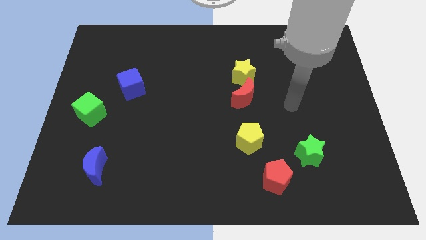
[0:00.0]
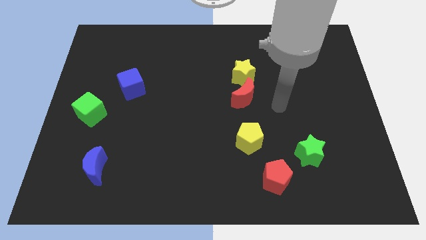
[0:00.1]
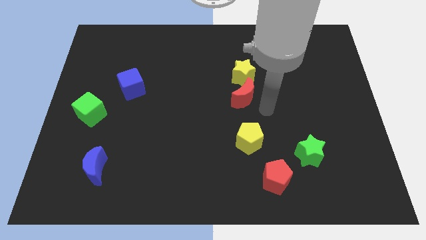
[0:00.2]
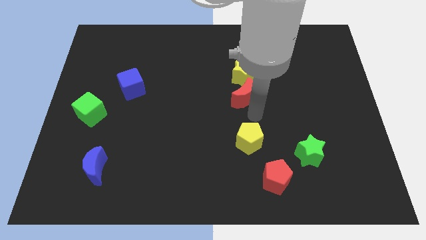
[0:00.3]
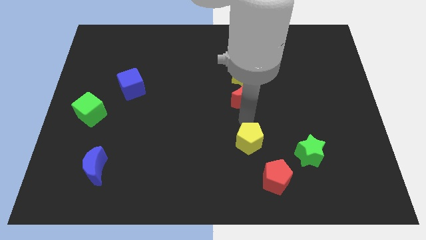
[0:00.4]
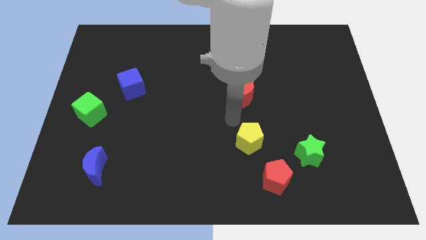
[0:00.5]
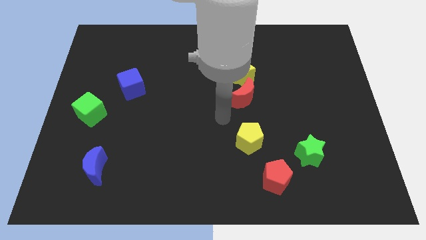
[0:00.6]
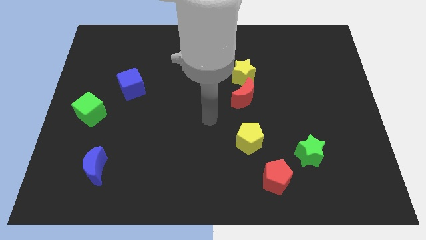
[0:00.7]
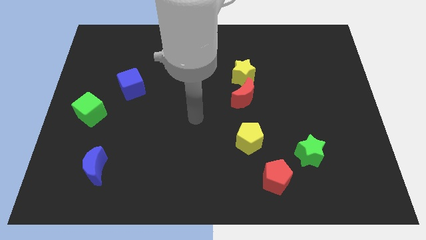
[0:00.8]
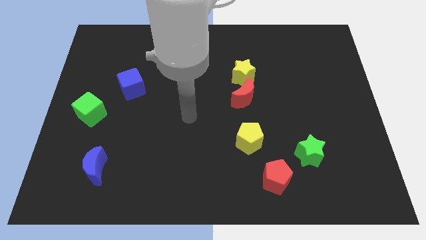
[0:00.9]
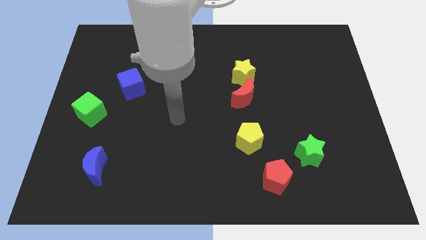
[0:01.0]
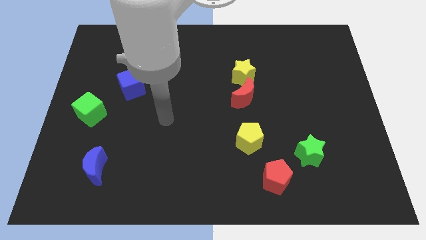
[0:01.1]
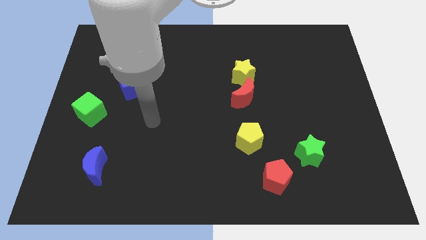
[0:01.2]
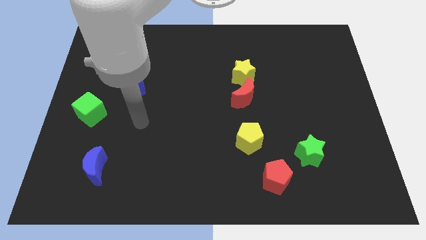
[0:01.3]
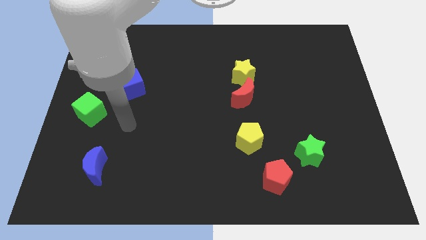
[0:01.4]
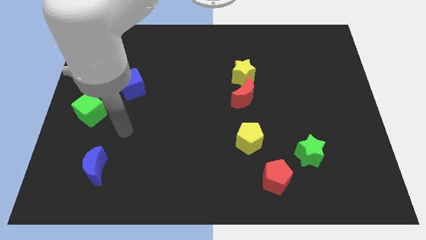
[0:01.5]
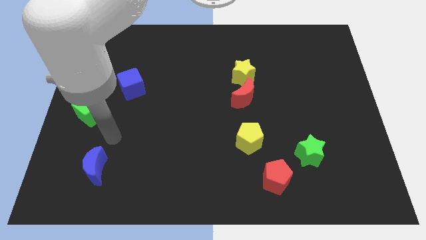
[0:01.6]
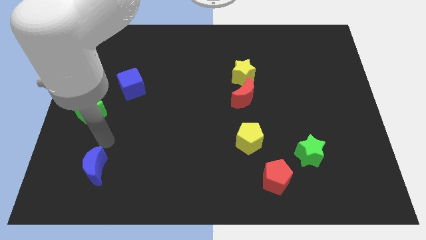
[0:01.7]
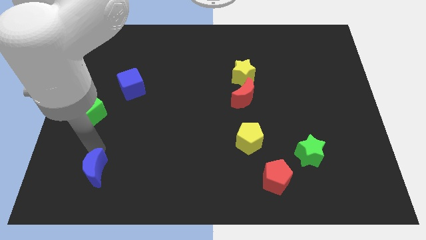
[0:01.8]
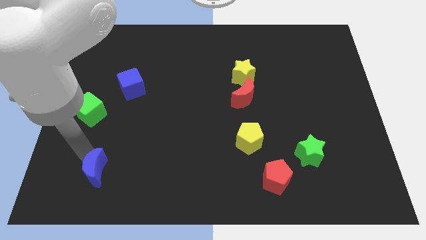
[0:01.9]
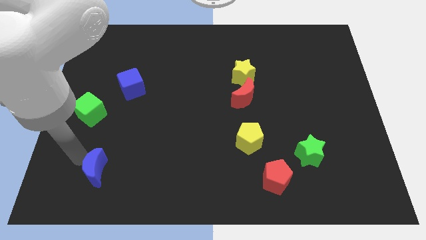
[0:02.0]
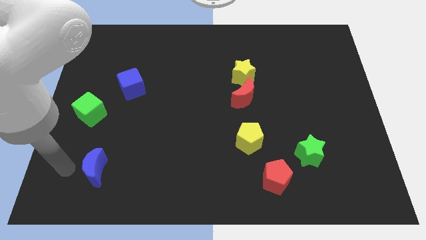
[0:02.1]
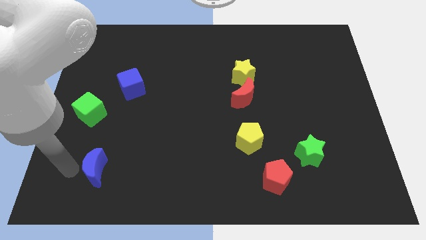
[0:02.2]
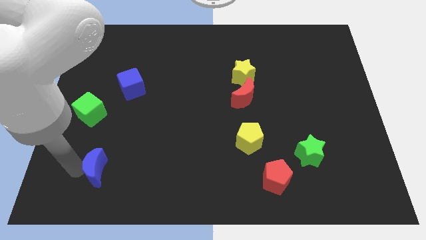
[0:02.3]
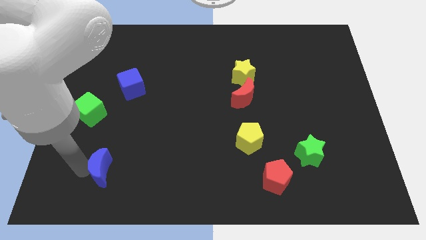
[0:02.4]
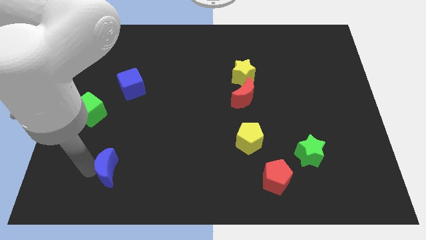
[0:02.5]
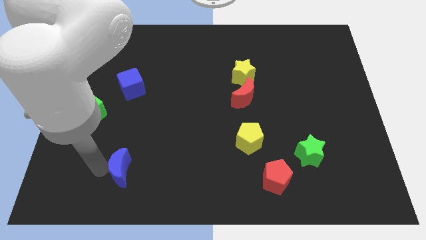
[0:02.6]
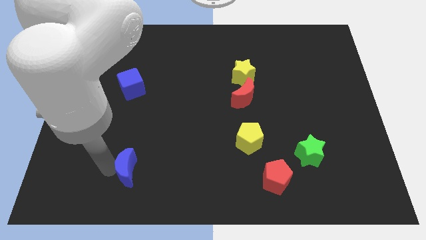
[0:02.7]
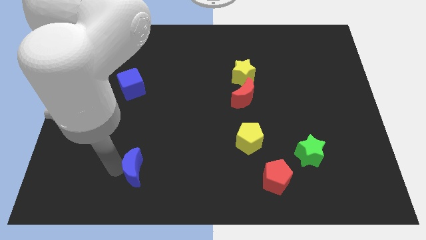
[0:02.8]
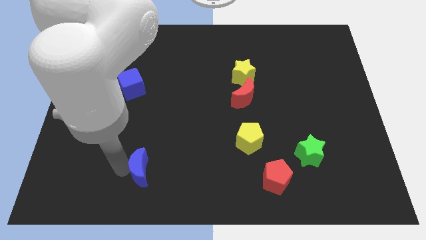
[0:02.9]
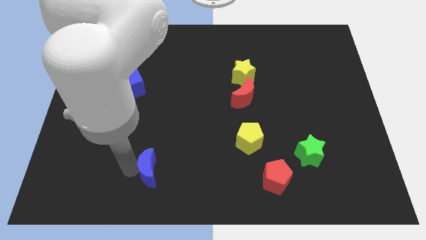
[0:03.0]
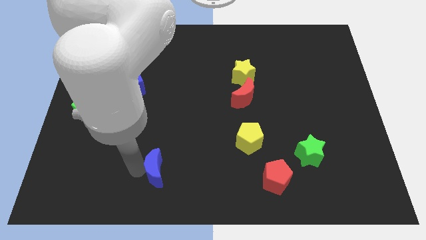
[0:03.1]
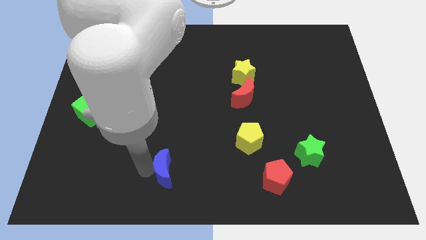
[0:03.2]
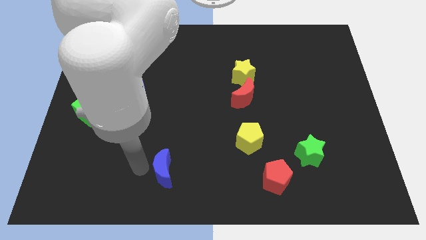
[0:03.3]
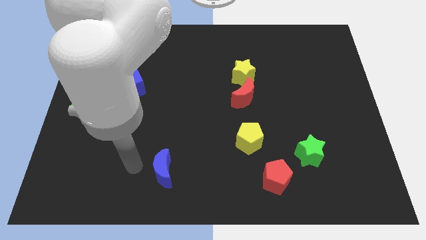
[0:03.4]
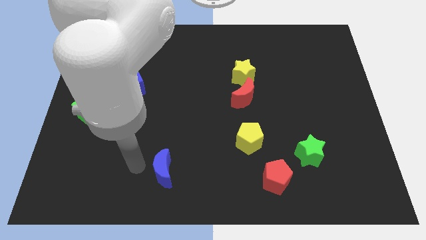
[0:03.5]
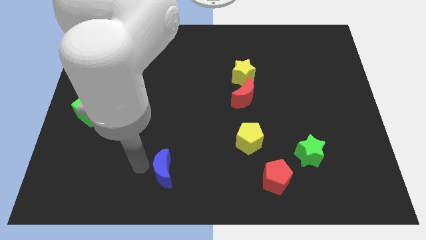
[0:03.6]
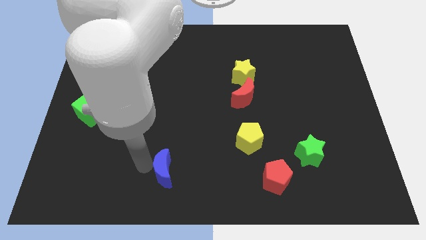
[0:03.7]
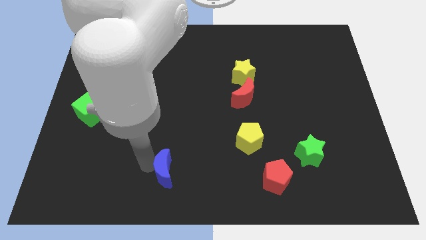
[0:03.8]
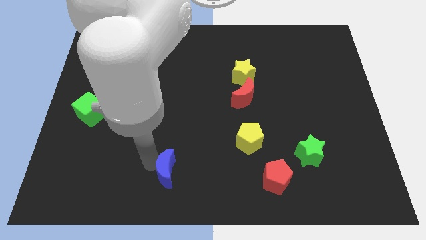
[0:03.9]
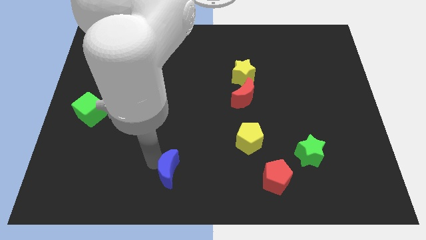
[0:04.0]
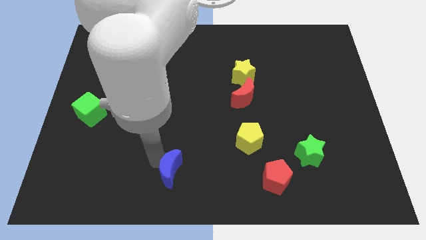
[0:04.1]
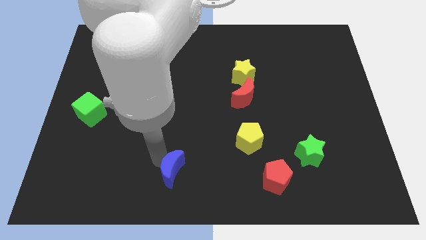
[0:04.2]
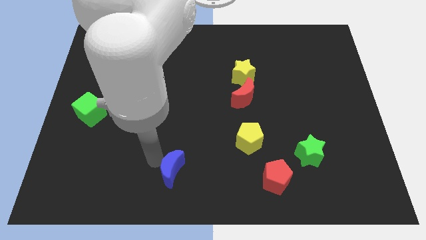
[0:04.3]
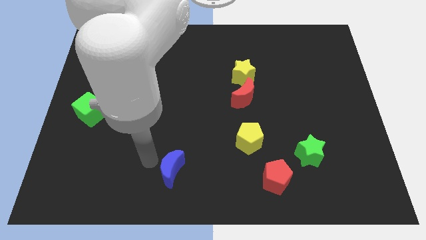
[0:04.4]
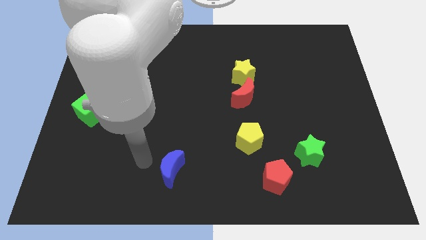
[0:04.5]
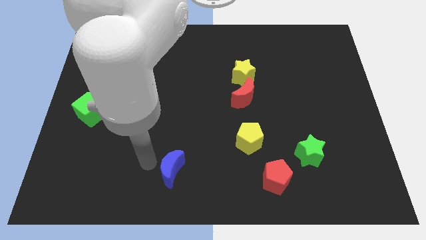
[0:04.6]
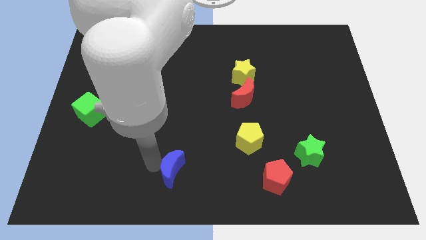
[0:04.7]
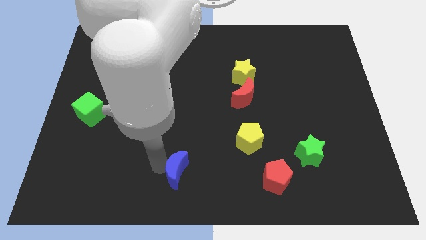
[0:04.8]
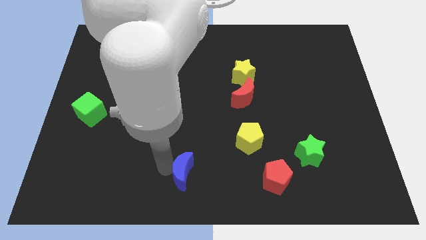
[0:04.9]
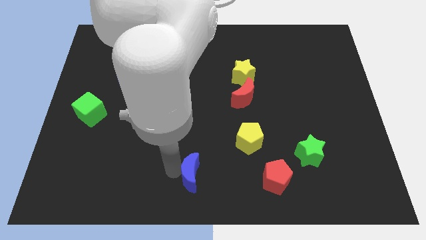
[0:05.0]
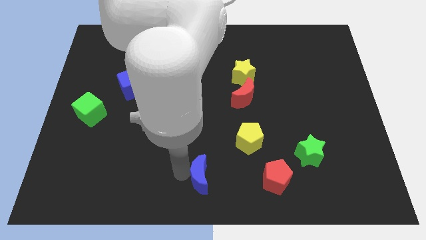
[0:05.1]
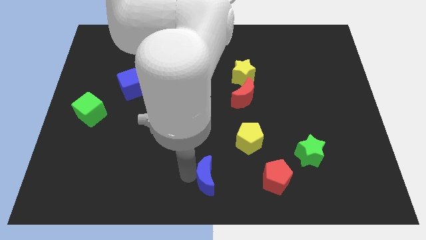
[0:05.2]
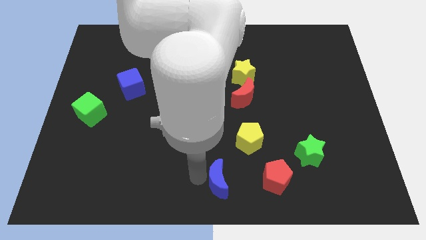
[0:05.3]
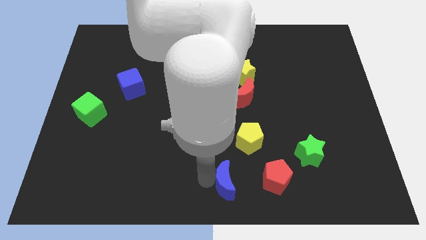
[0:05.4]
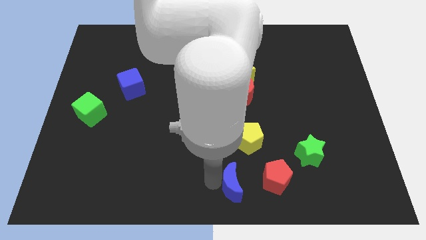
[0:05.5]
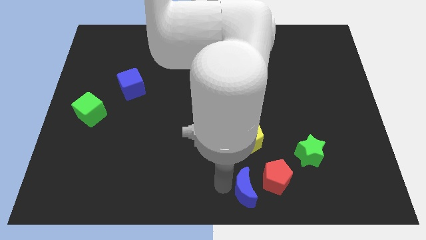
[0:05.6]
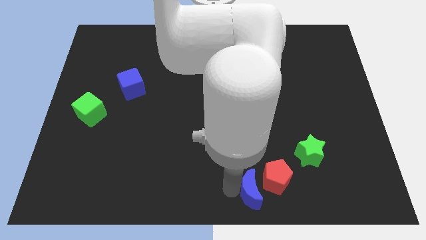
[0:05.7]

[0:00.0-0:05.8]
push the blue moon towards the red pentagon

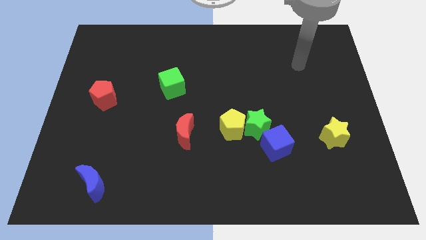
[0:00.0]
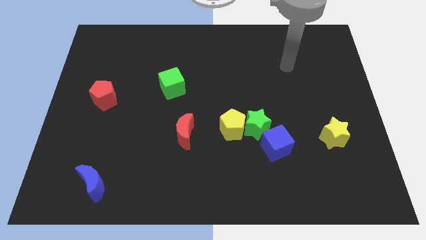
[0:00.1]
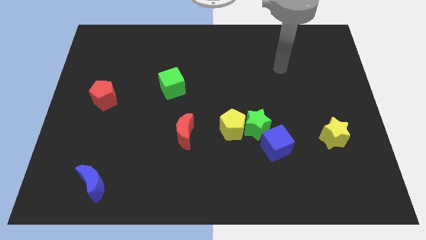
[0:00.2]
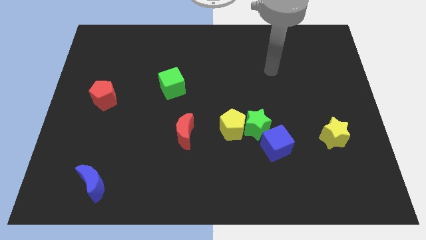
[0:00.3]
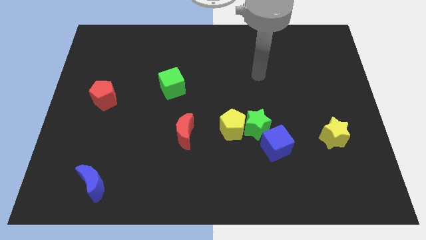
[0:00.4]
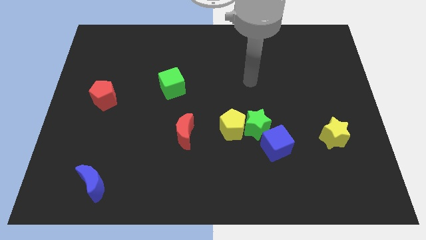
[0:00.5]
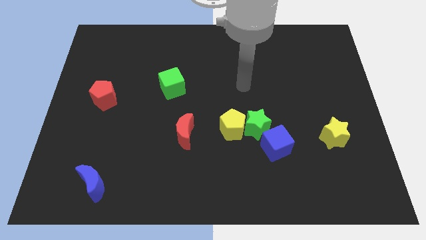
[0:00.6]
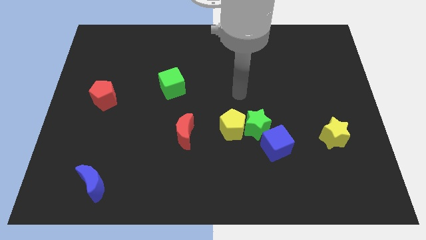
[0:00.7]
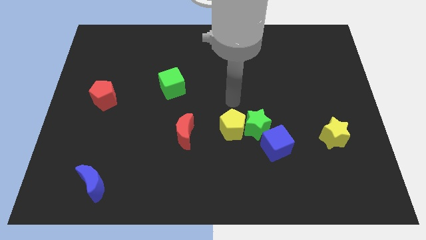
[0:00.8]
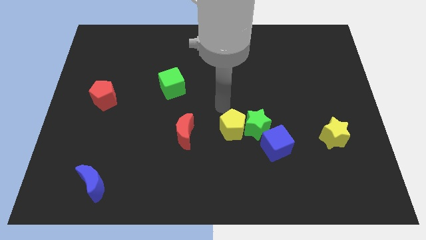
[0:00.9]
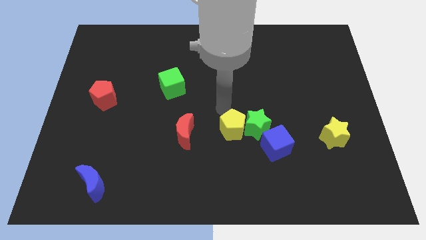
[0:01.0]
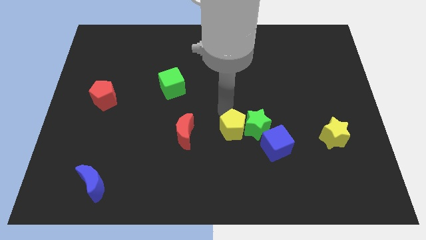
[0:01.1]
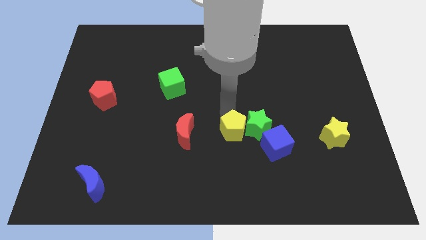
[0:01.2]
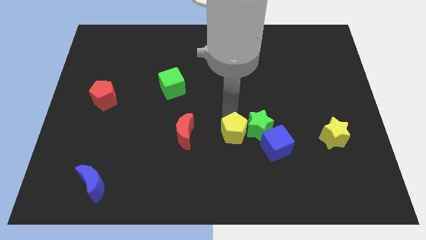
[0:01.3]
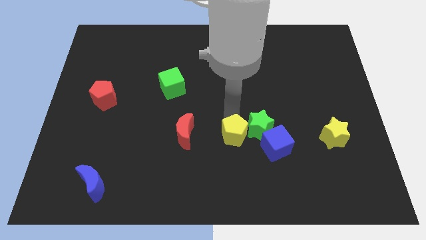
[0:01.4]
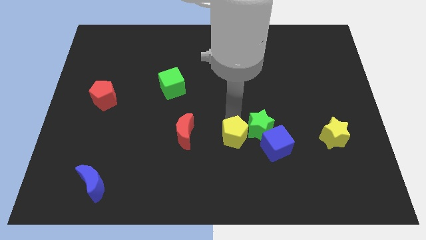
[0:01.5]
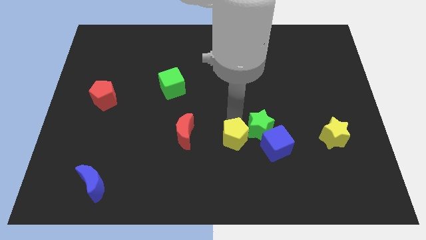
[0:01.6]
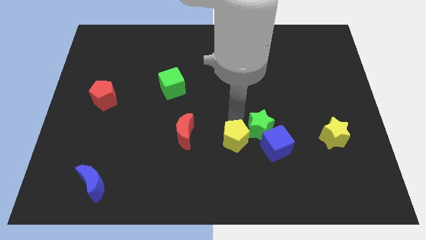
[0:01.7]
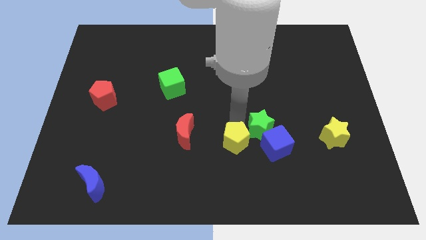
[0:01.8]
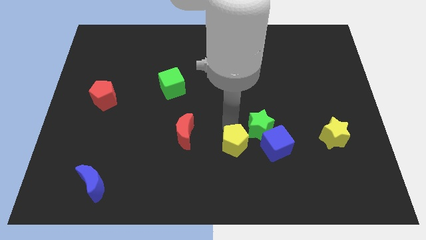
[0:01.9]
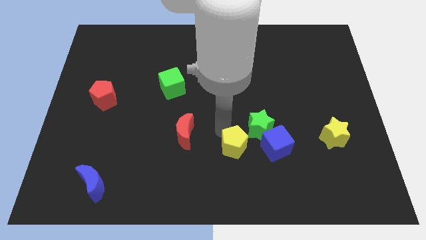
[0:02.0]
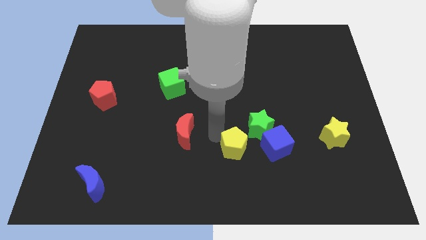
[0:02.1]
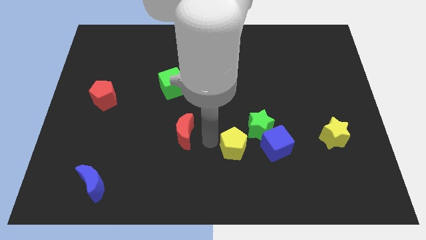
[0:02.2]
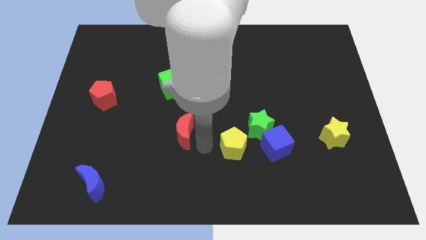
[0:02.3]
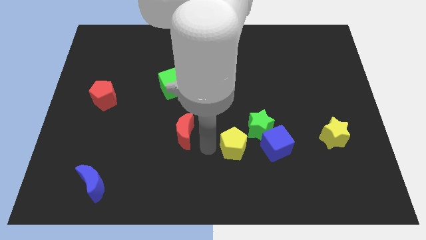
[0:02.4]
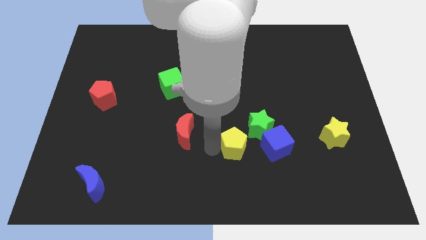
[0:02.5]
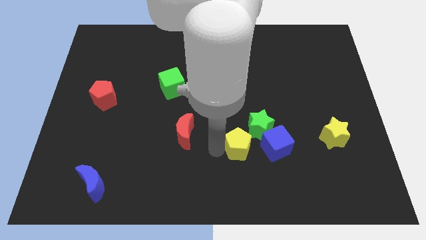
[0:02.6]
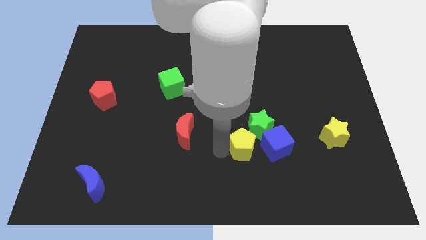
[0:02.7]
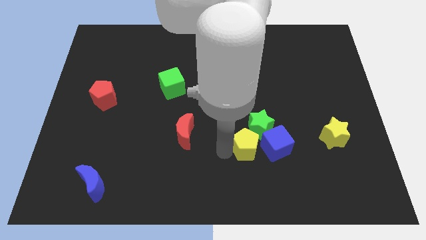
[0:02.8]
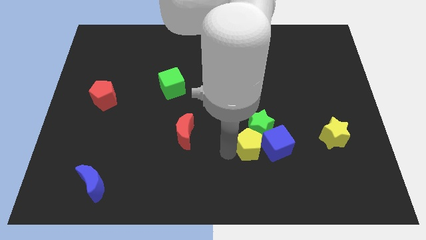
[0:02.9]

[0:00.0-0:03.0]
put the yellow pentagon next to the blue cube
